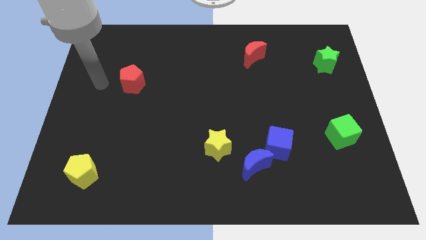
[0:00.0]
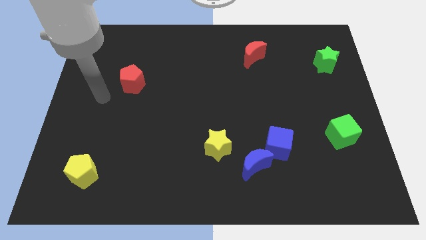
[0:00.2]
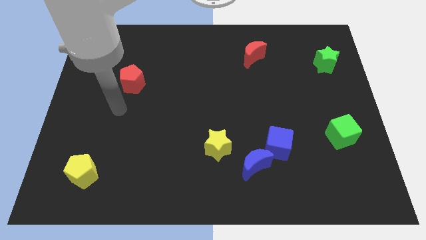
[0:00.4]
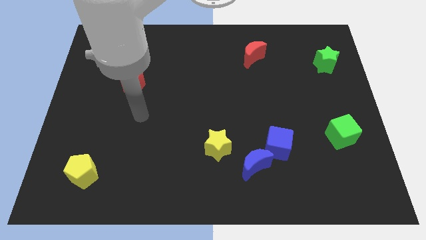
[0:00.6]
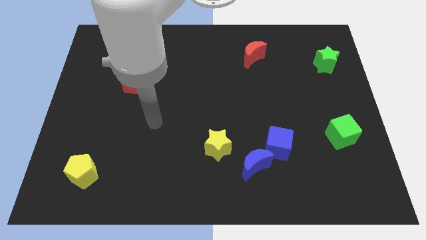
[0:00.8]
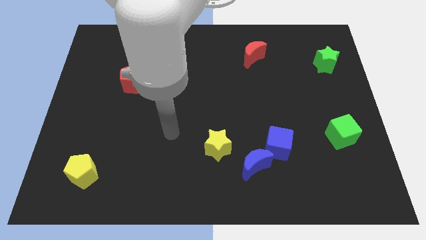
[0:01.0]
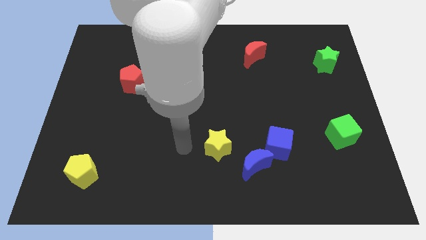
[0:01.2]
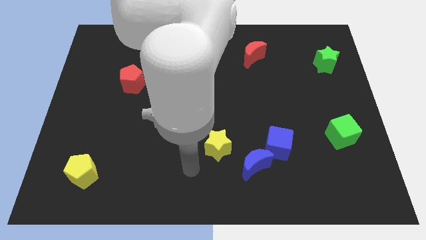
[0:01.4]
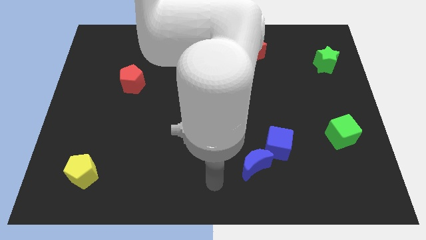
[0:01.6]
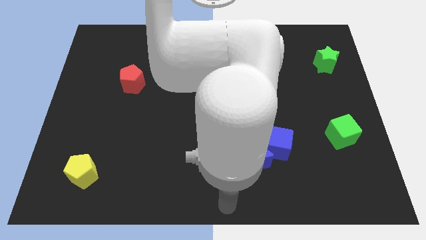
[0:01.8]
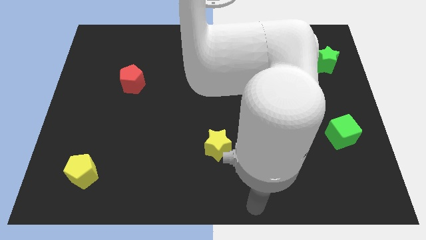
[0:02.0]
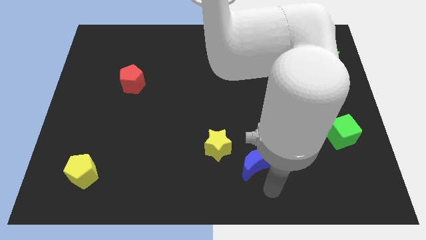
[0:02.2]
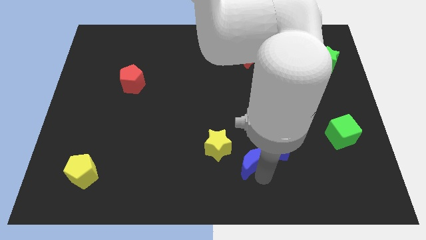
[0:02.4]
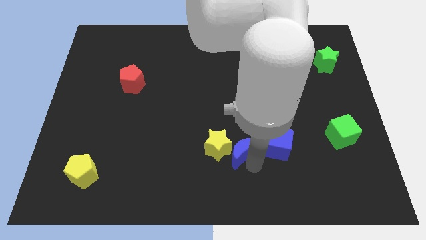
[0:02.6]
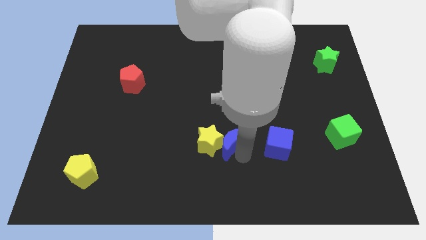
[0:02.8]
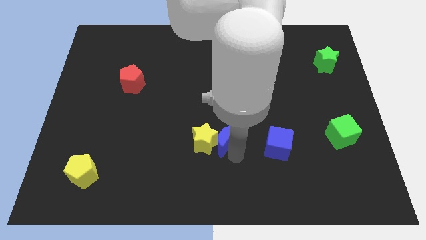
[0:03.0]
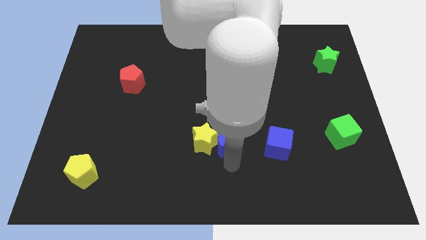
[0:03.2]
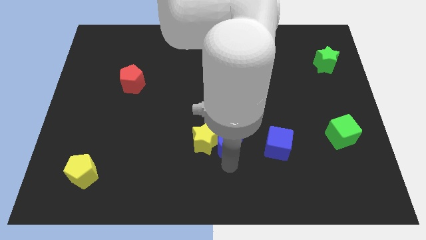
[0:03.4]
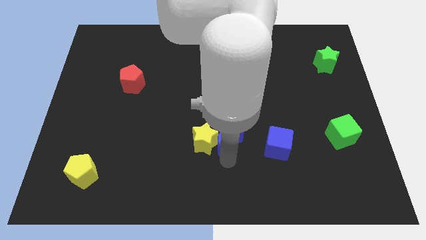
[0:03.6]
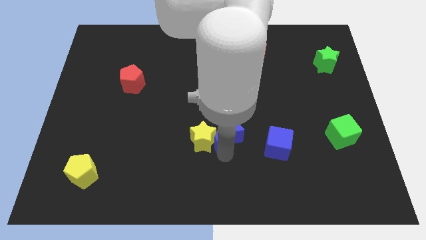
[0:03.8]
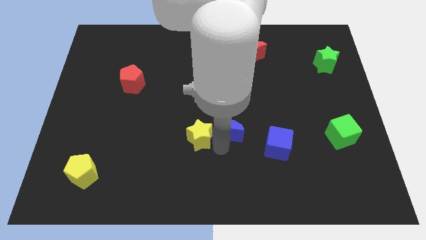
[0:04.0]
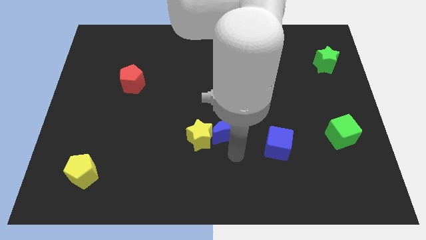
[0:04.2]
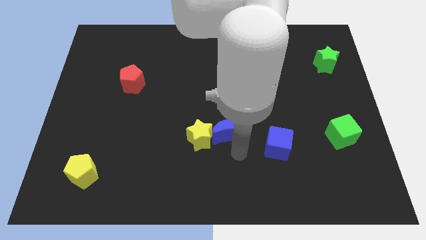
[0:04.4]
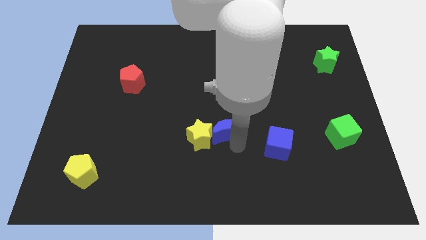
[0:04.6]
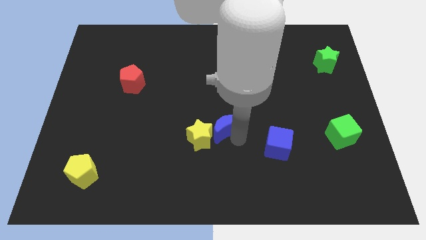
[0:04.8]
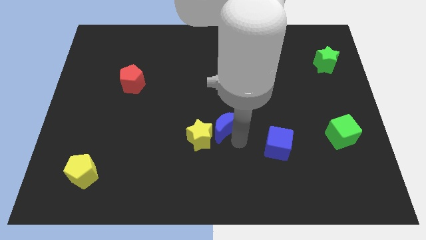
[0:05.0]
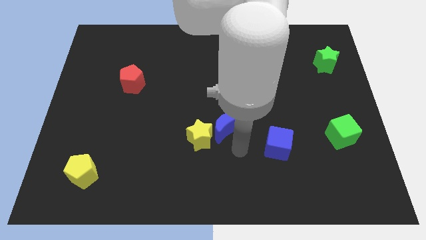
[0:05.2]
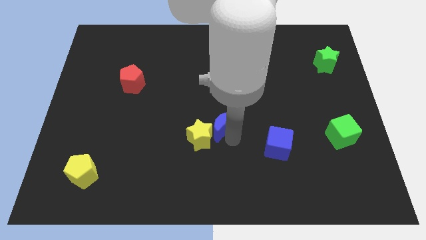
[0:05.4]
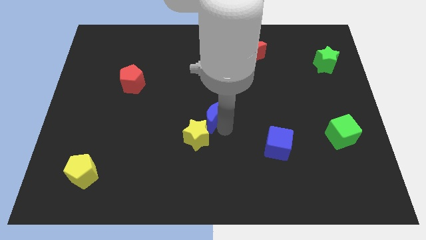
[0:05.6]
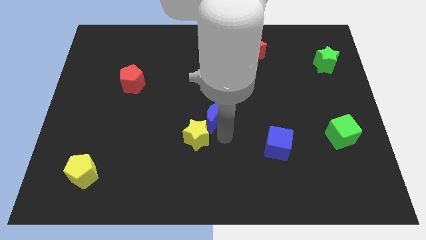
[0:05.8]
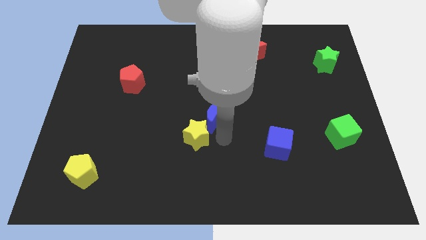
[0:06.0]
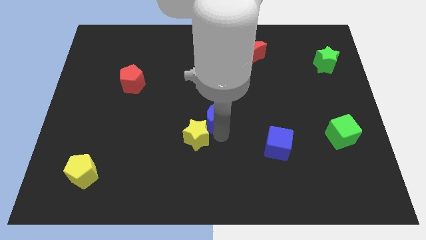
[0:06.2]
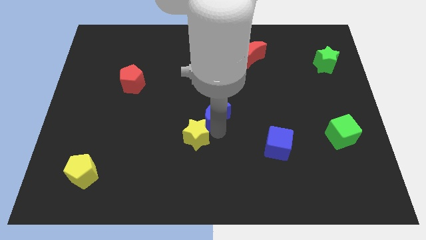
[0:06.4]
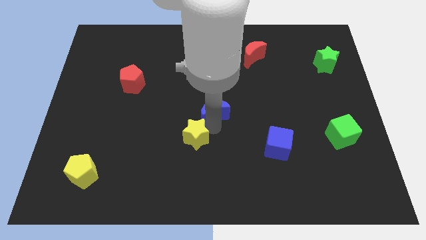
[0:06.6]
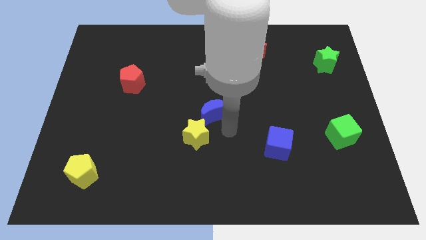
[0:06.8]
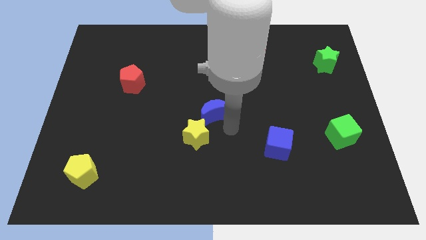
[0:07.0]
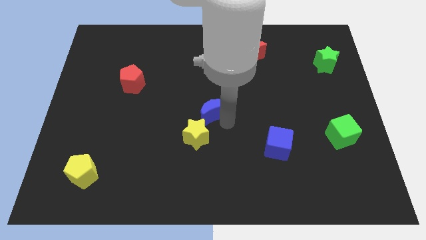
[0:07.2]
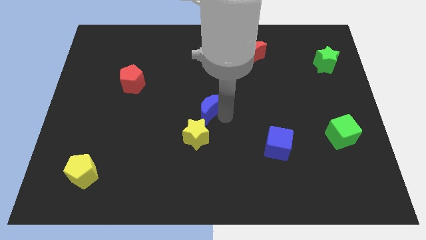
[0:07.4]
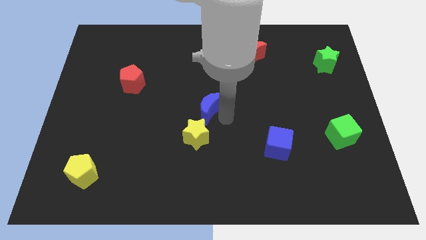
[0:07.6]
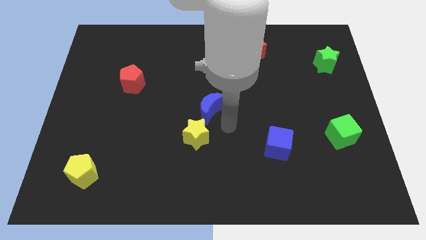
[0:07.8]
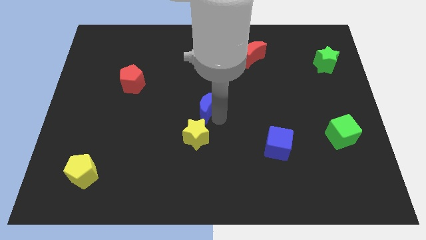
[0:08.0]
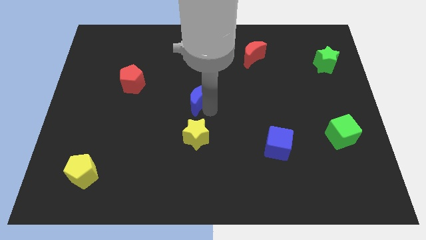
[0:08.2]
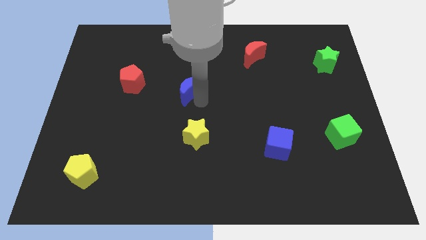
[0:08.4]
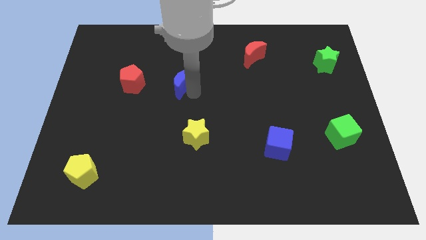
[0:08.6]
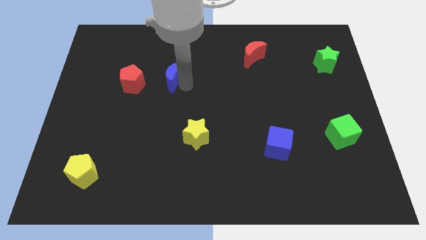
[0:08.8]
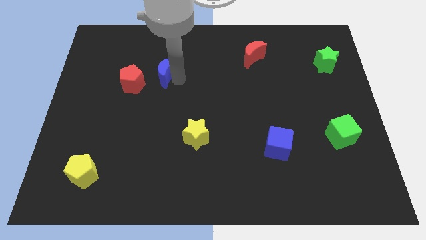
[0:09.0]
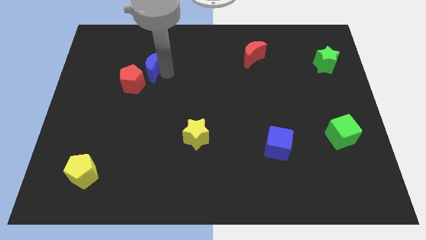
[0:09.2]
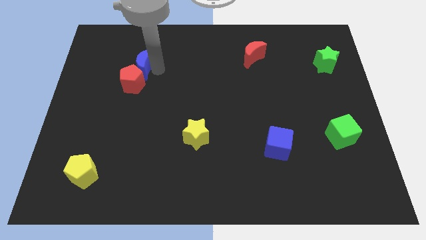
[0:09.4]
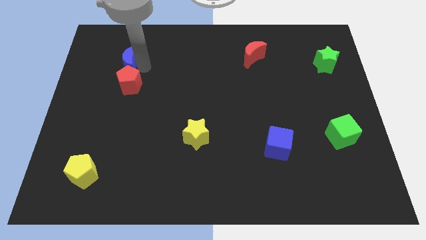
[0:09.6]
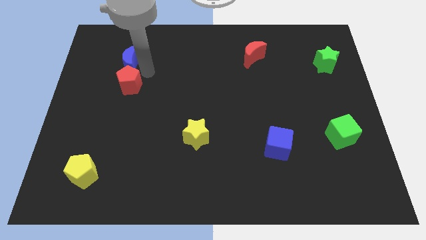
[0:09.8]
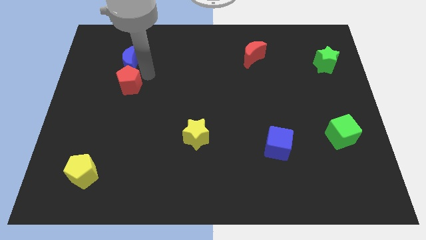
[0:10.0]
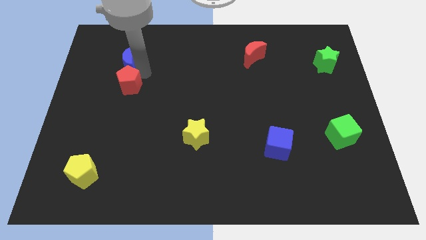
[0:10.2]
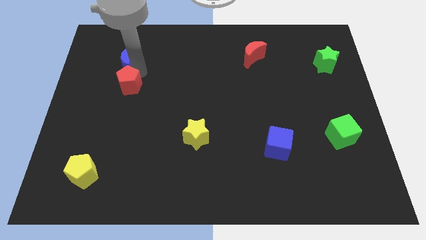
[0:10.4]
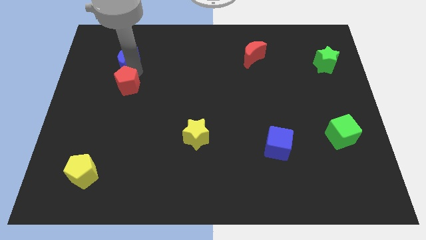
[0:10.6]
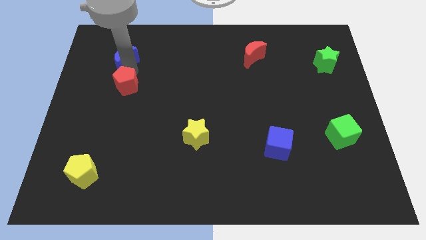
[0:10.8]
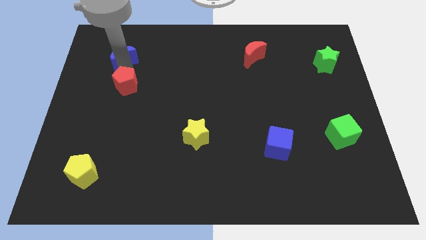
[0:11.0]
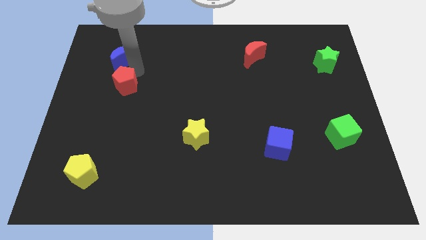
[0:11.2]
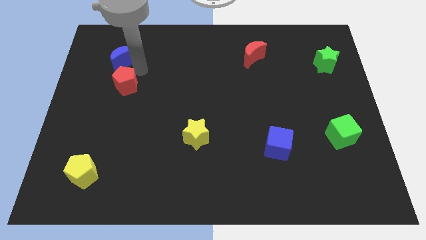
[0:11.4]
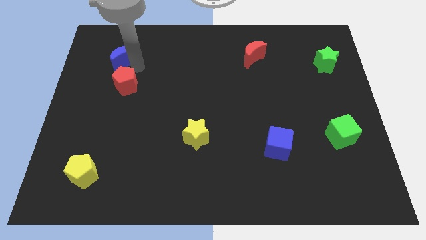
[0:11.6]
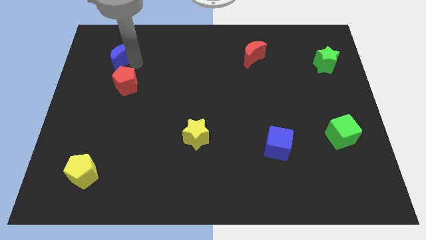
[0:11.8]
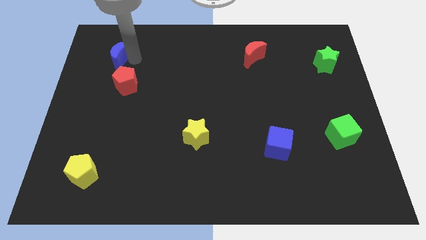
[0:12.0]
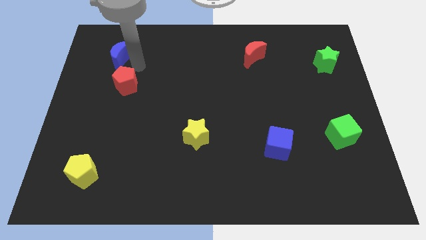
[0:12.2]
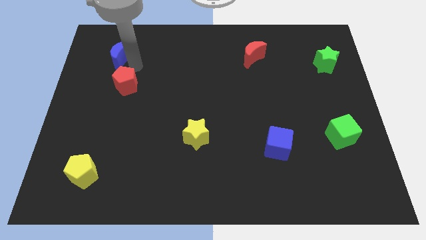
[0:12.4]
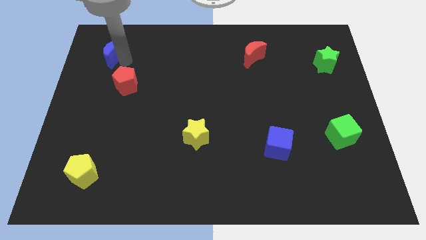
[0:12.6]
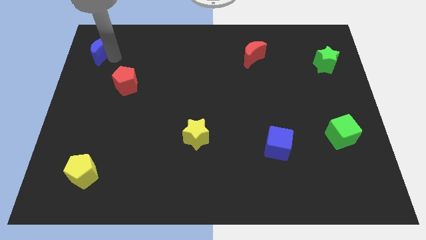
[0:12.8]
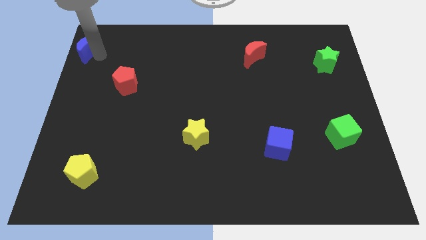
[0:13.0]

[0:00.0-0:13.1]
push the blue moon to the upper left corner
